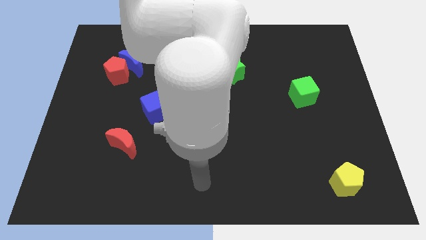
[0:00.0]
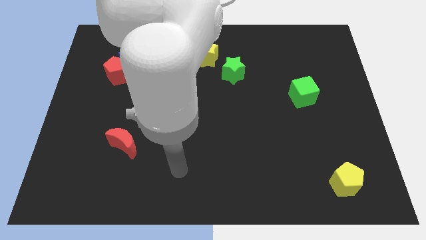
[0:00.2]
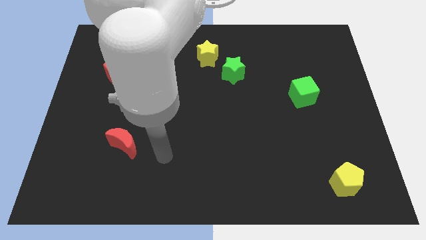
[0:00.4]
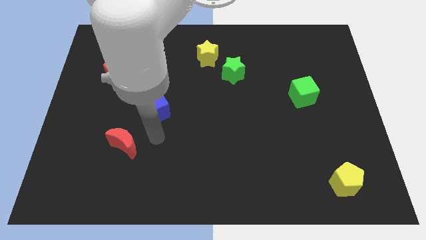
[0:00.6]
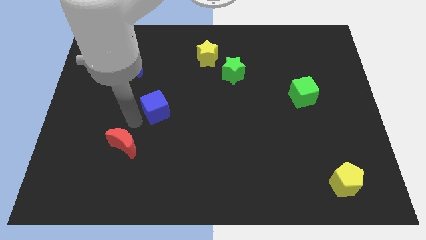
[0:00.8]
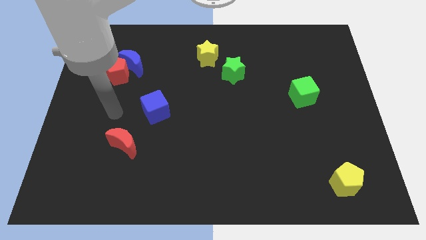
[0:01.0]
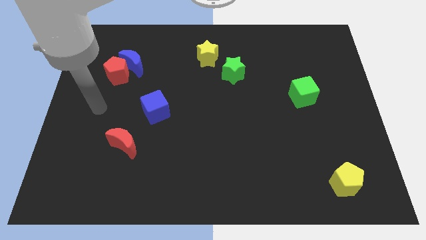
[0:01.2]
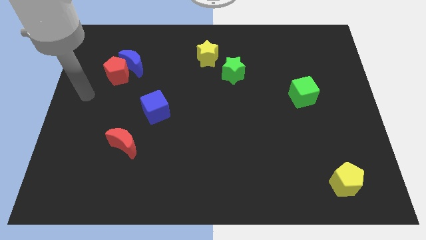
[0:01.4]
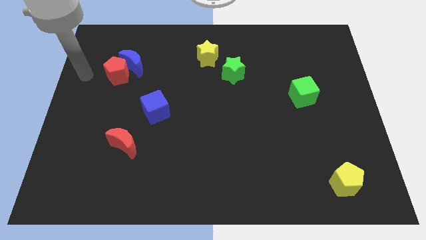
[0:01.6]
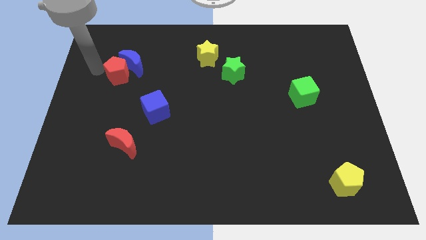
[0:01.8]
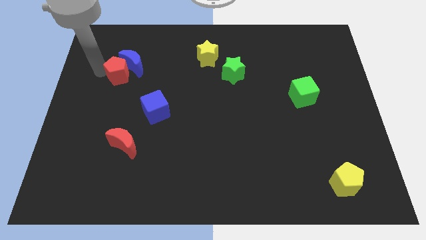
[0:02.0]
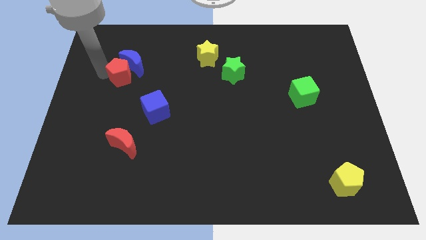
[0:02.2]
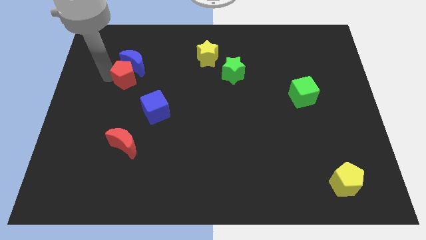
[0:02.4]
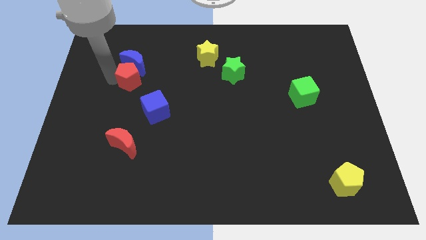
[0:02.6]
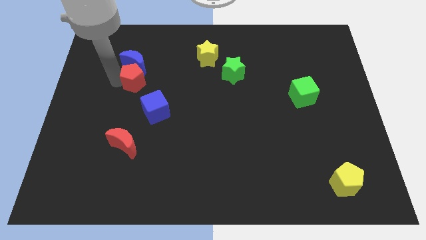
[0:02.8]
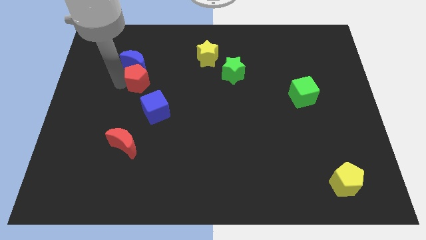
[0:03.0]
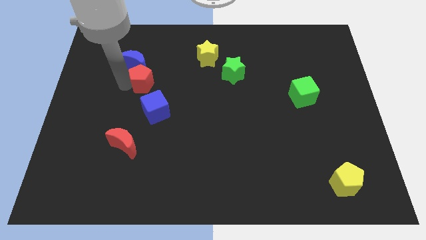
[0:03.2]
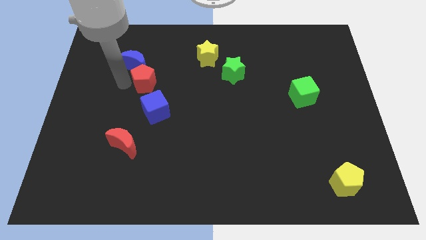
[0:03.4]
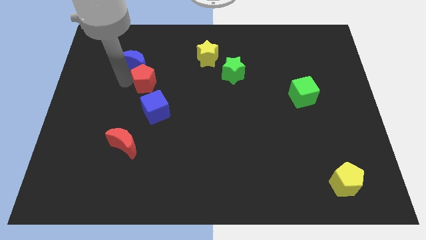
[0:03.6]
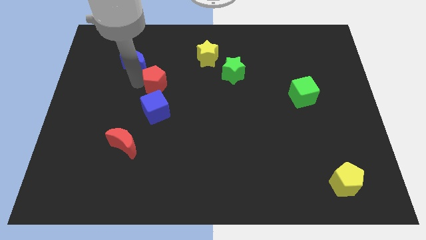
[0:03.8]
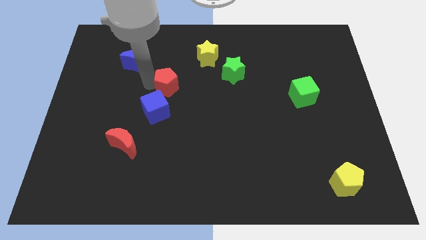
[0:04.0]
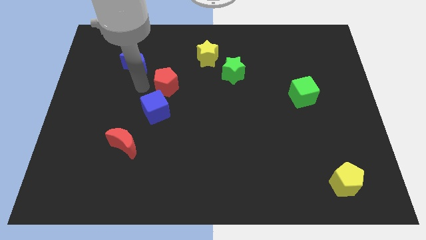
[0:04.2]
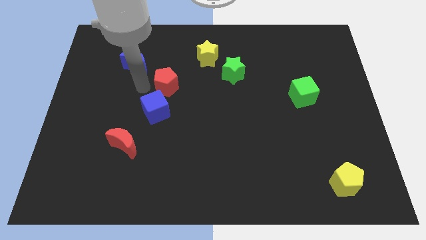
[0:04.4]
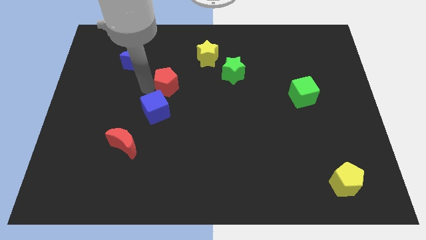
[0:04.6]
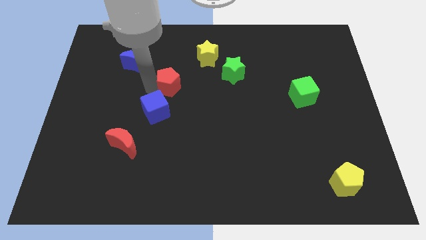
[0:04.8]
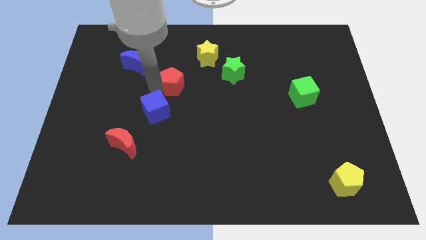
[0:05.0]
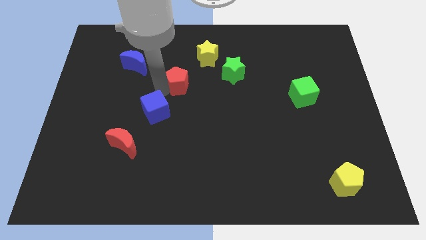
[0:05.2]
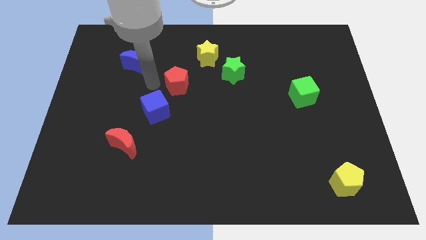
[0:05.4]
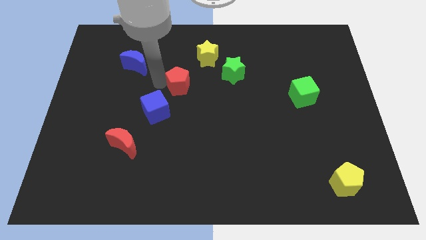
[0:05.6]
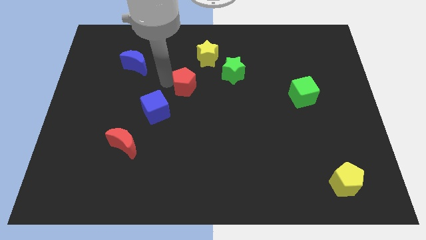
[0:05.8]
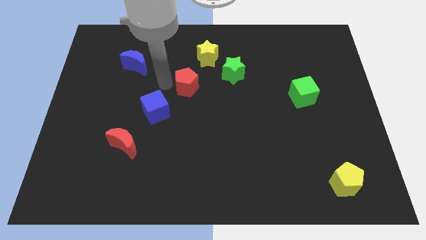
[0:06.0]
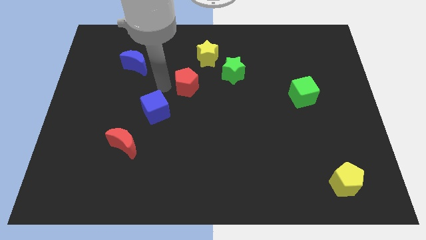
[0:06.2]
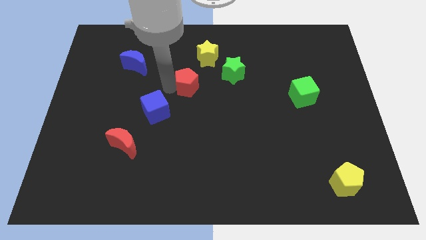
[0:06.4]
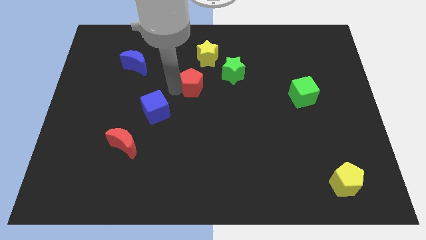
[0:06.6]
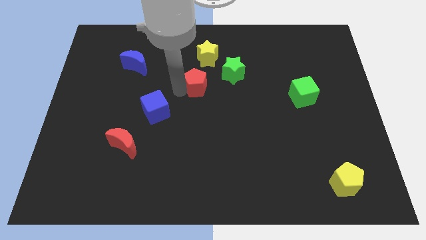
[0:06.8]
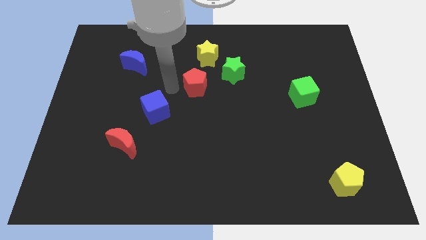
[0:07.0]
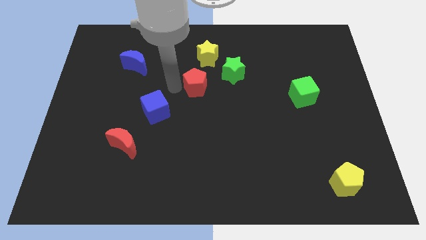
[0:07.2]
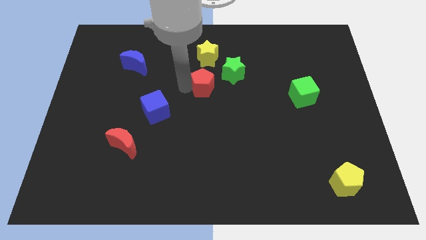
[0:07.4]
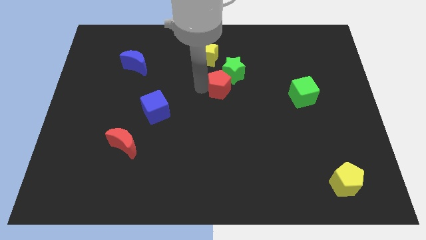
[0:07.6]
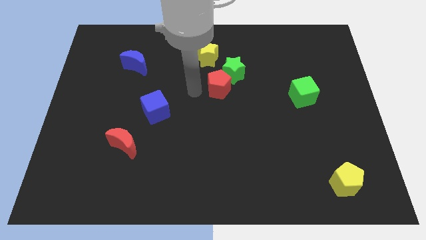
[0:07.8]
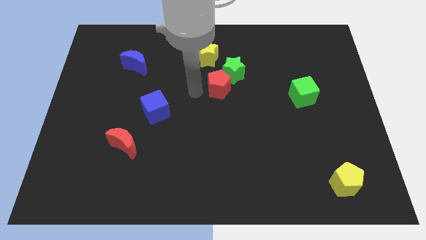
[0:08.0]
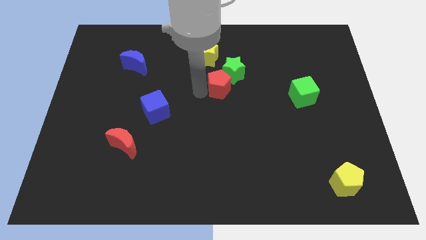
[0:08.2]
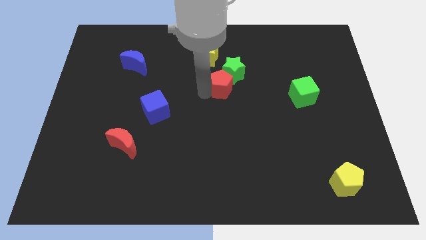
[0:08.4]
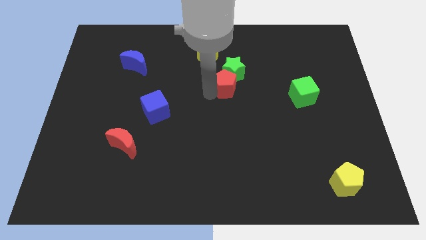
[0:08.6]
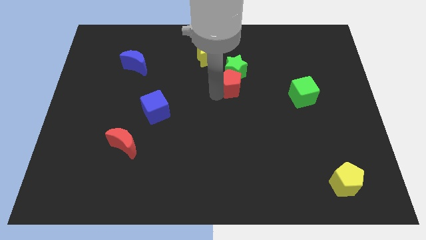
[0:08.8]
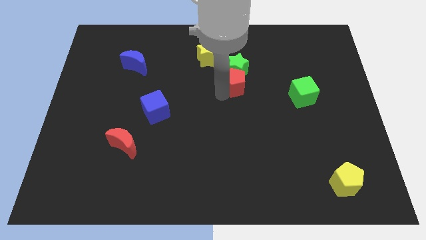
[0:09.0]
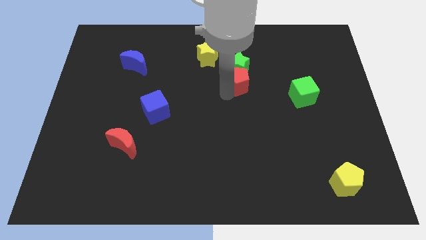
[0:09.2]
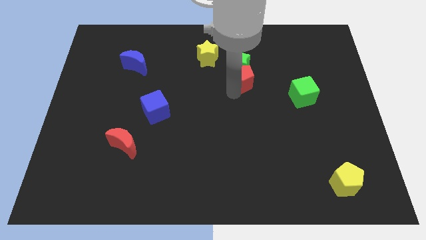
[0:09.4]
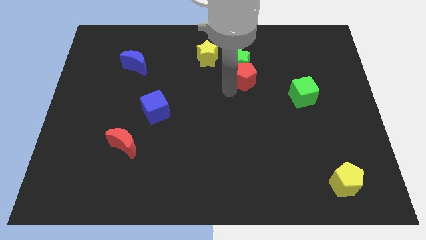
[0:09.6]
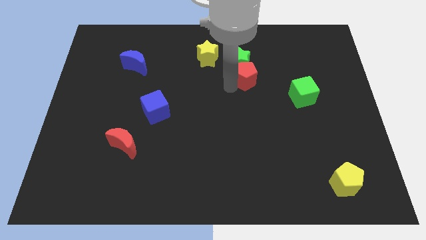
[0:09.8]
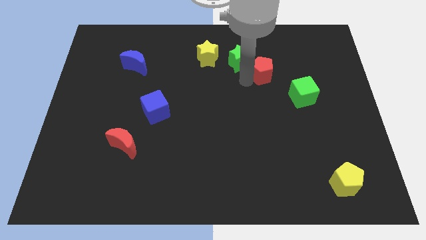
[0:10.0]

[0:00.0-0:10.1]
slide the red pentagon just right of the green star
